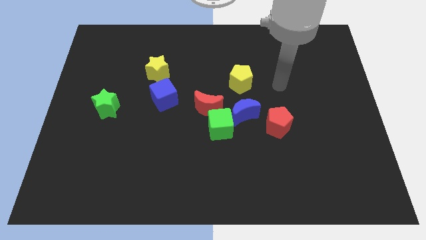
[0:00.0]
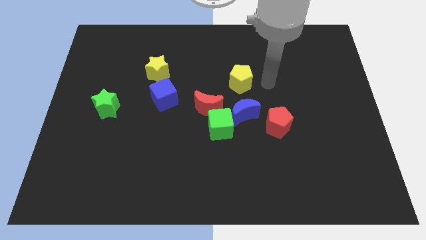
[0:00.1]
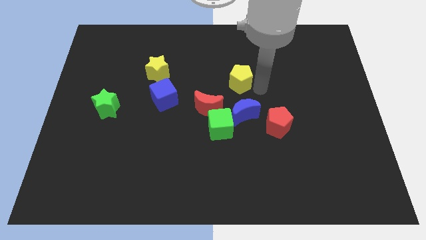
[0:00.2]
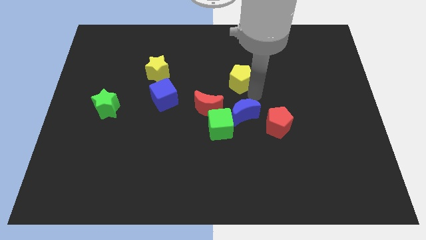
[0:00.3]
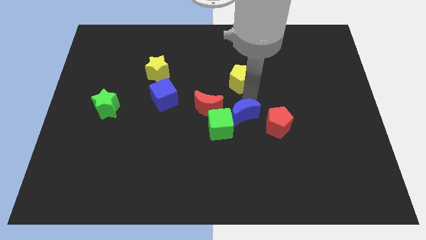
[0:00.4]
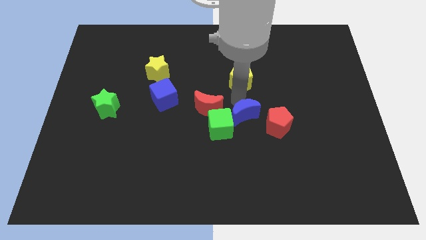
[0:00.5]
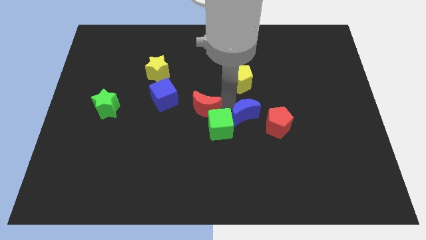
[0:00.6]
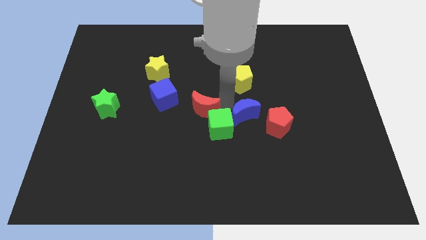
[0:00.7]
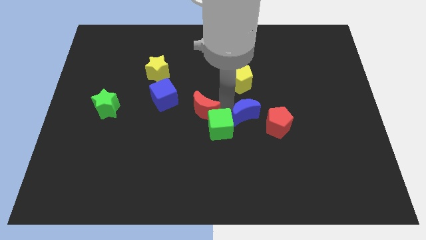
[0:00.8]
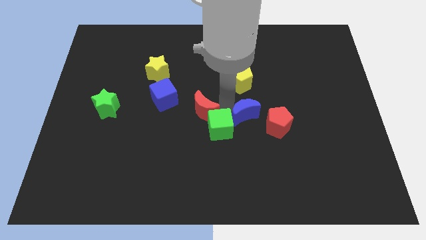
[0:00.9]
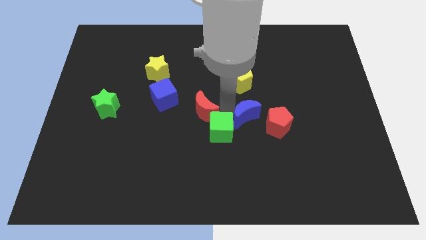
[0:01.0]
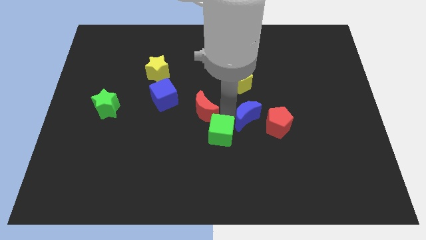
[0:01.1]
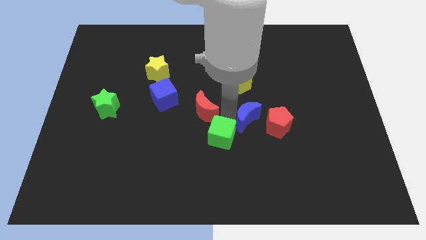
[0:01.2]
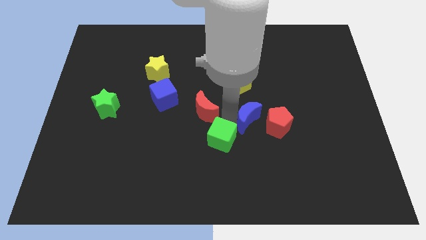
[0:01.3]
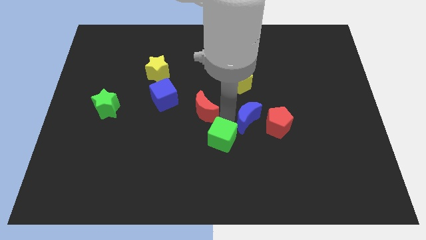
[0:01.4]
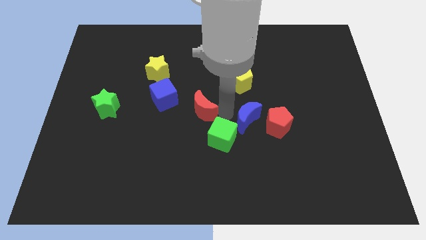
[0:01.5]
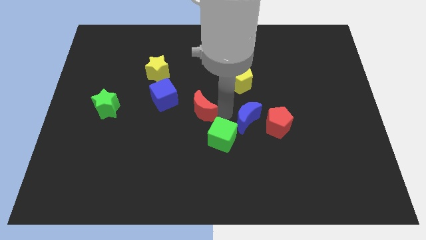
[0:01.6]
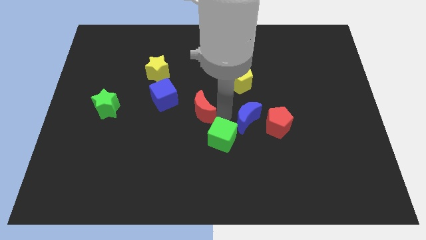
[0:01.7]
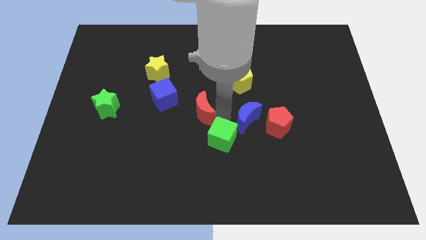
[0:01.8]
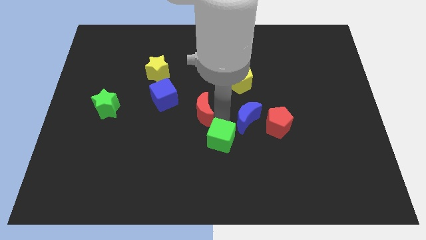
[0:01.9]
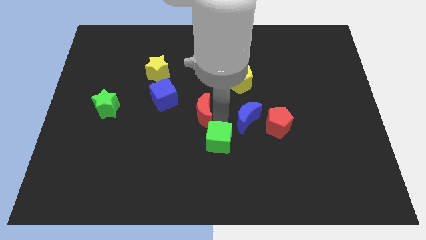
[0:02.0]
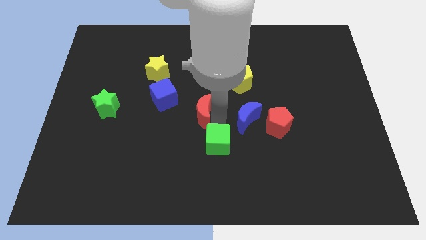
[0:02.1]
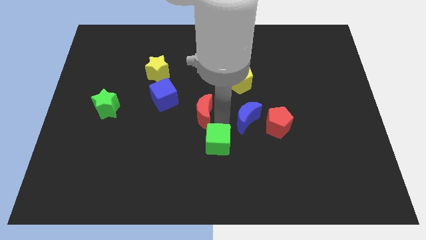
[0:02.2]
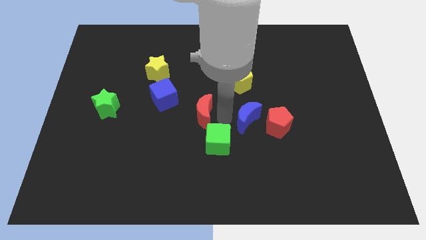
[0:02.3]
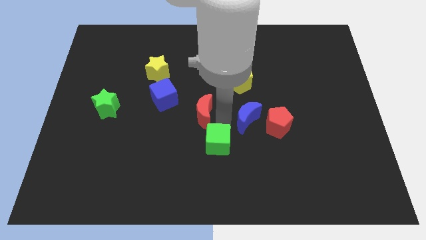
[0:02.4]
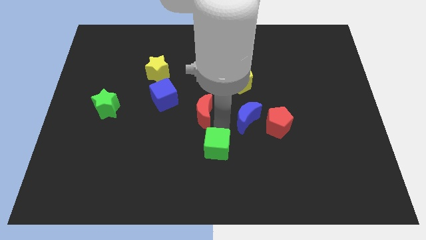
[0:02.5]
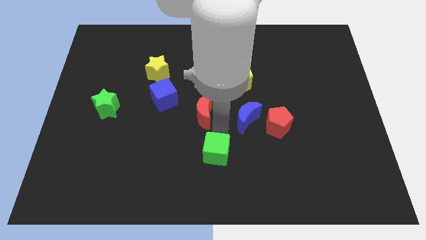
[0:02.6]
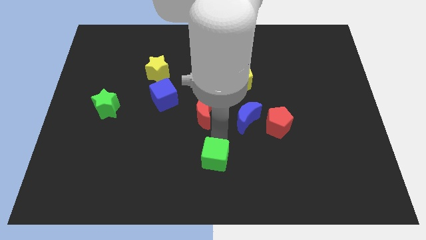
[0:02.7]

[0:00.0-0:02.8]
separate the green cube from the red moon and blue moon

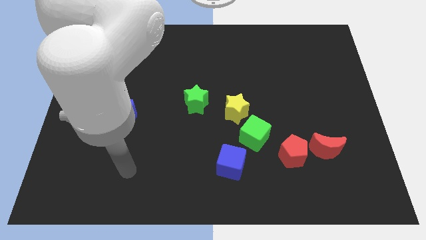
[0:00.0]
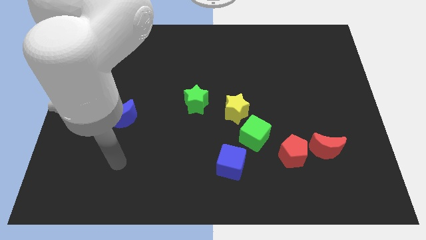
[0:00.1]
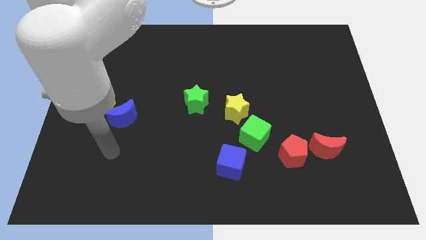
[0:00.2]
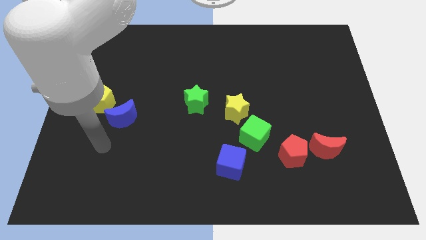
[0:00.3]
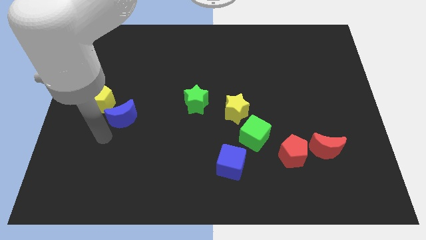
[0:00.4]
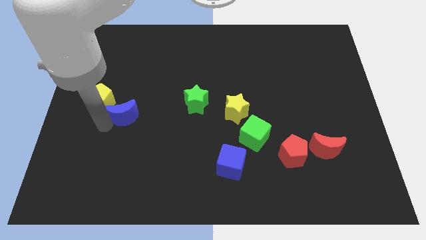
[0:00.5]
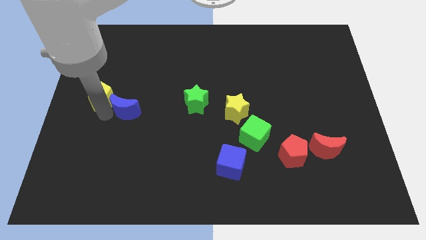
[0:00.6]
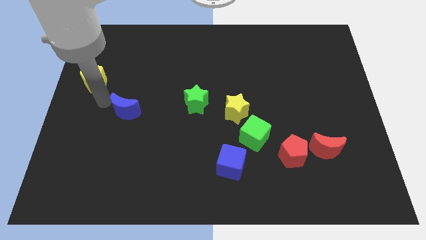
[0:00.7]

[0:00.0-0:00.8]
move the blue moon away from the yellow pentagon

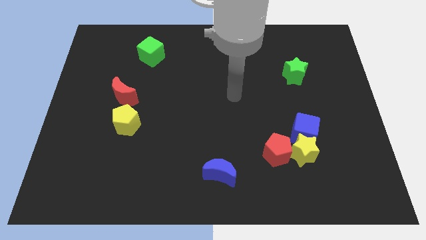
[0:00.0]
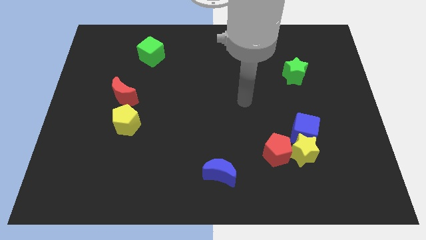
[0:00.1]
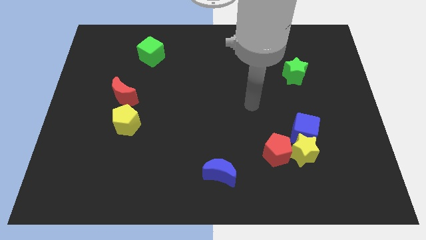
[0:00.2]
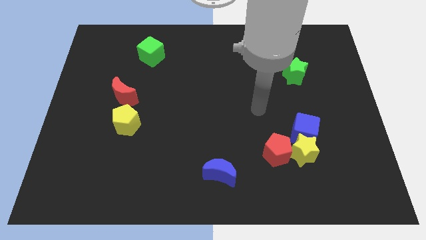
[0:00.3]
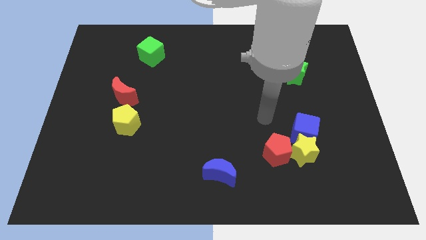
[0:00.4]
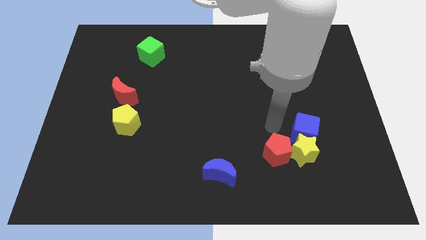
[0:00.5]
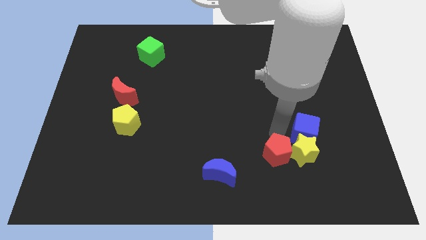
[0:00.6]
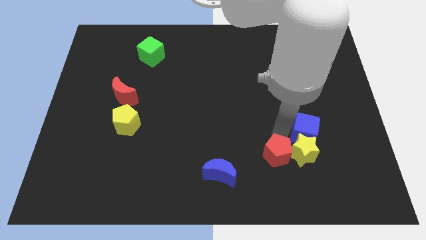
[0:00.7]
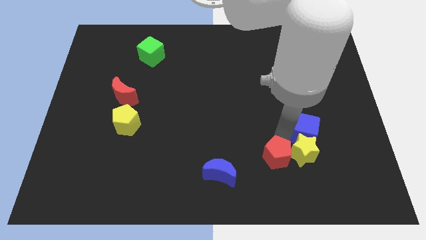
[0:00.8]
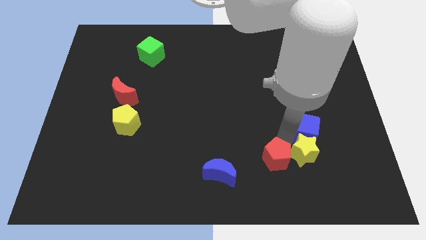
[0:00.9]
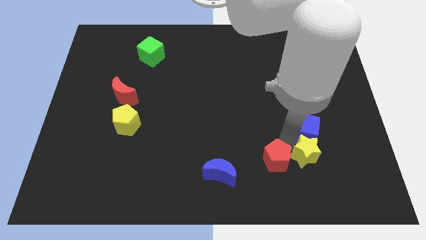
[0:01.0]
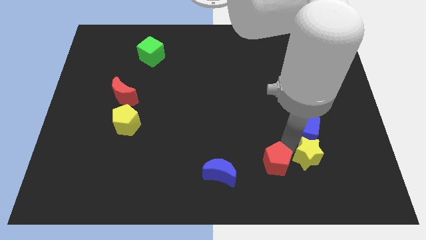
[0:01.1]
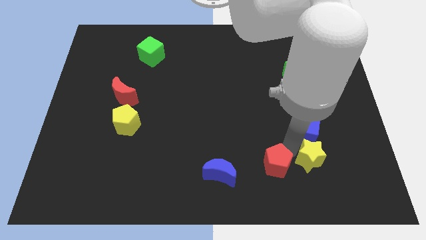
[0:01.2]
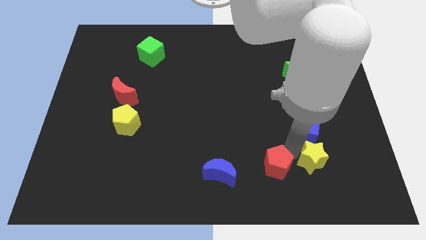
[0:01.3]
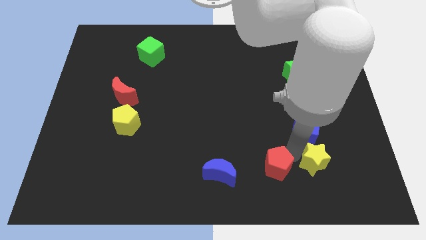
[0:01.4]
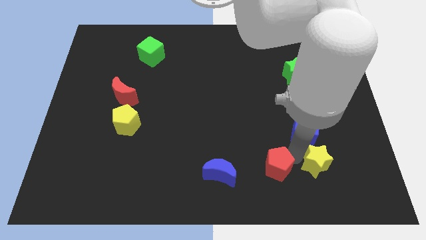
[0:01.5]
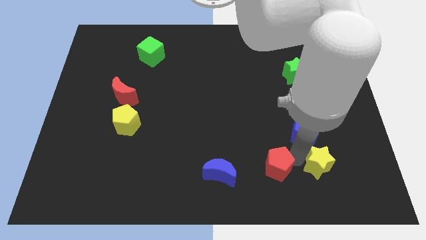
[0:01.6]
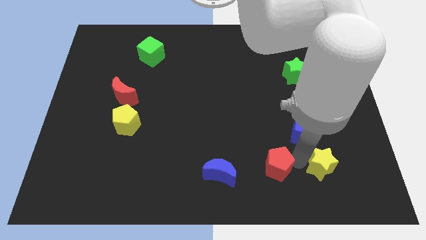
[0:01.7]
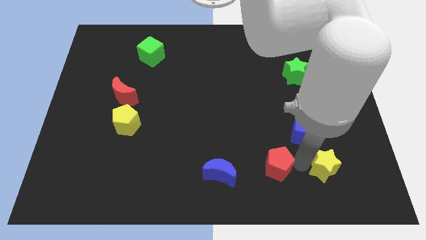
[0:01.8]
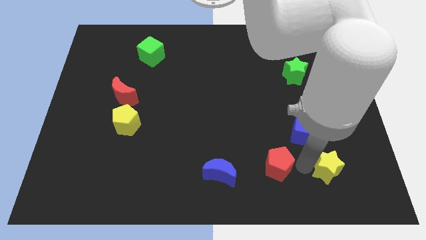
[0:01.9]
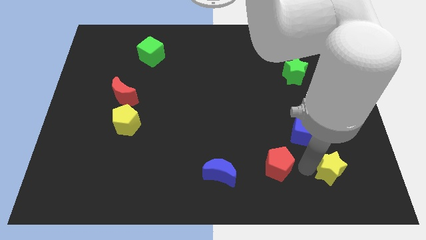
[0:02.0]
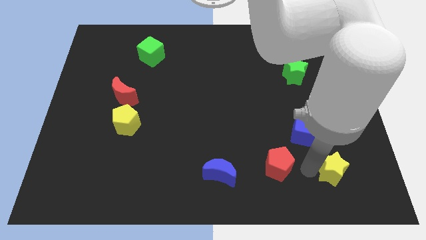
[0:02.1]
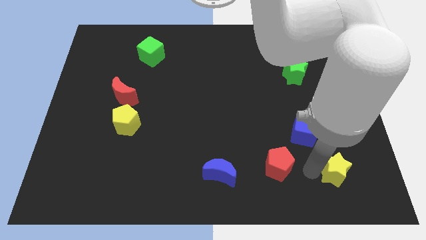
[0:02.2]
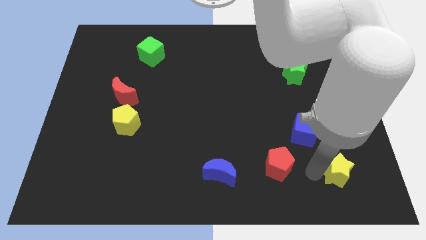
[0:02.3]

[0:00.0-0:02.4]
move the yellow star away from the blue cube and red pentagon

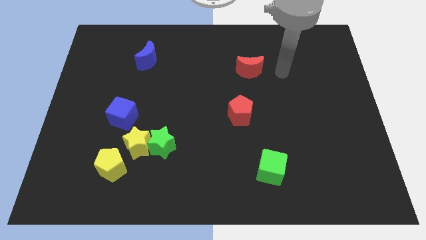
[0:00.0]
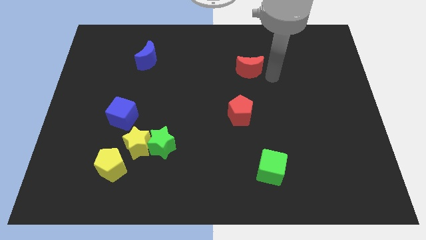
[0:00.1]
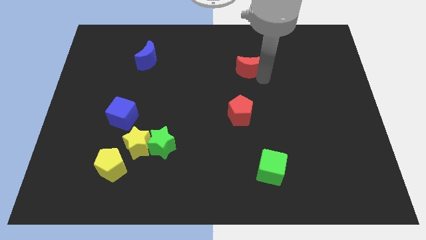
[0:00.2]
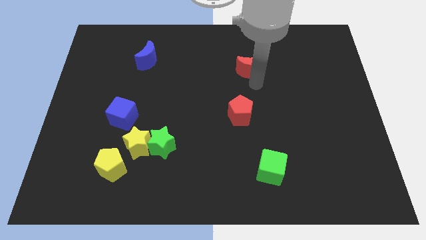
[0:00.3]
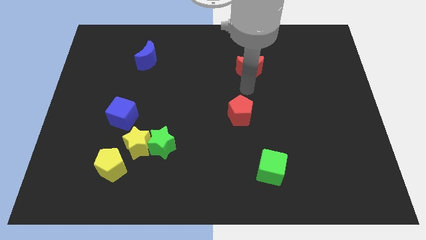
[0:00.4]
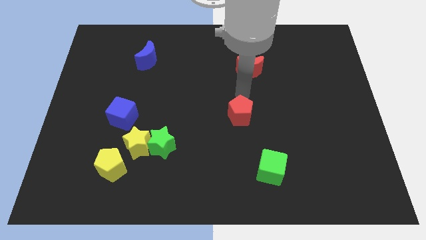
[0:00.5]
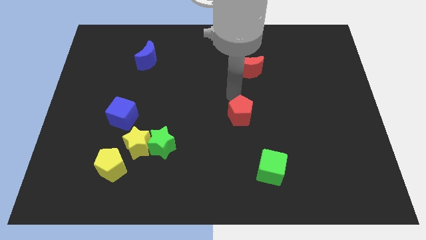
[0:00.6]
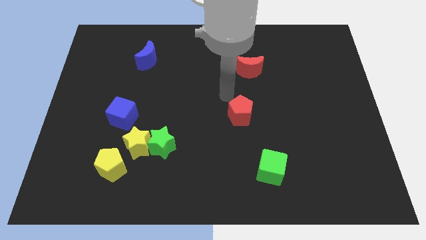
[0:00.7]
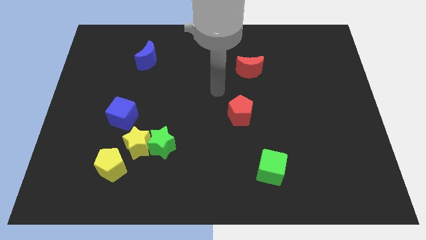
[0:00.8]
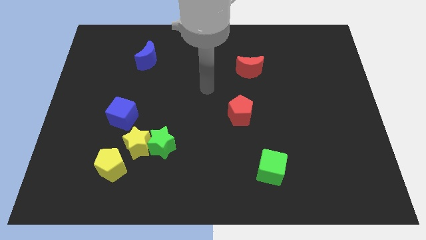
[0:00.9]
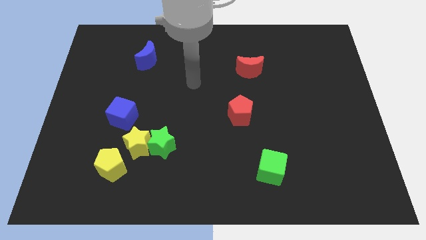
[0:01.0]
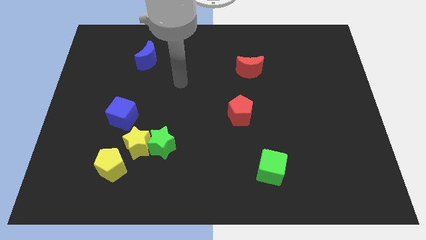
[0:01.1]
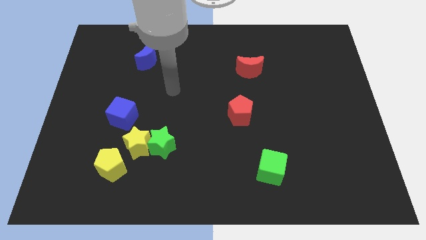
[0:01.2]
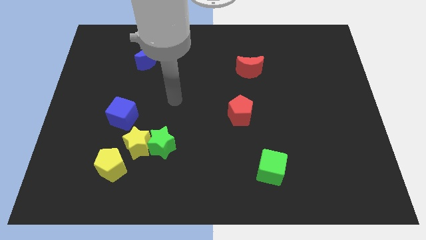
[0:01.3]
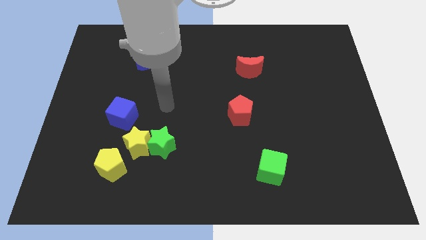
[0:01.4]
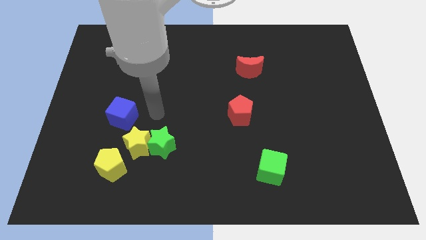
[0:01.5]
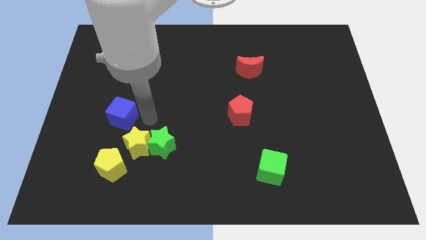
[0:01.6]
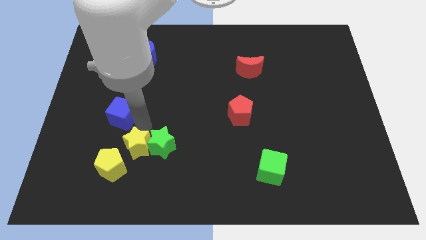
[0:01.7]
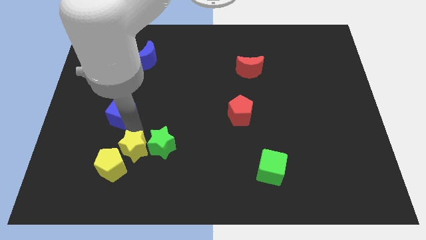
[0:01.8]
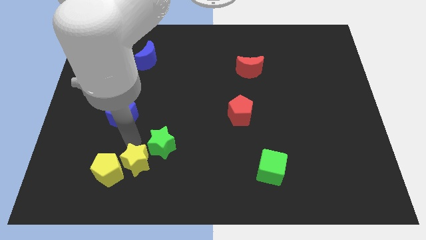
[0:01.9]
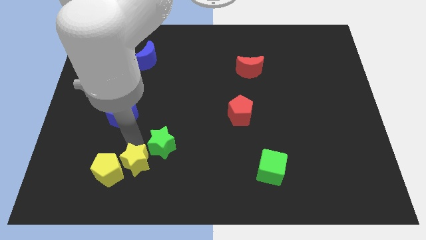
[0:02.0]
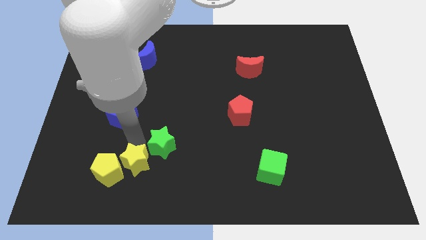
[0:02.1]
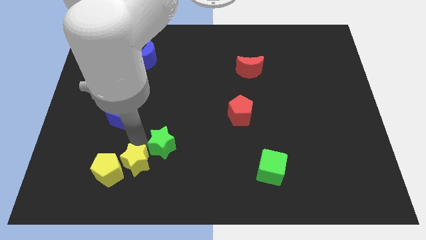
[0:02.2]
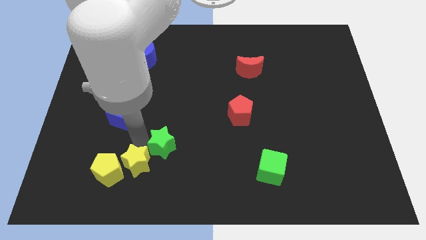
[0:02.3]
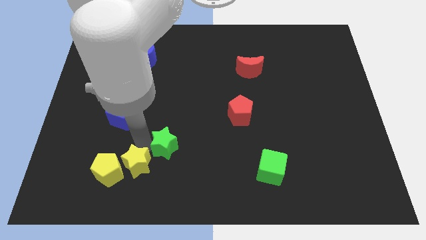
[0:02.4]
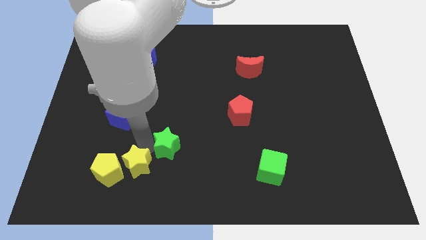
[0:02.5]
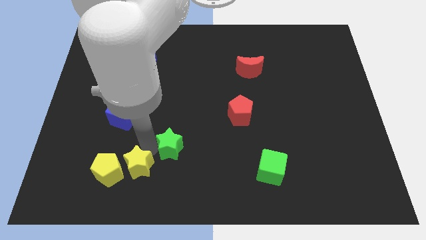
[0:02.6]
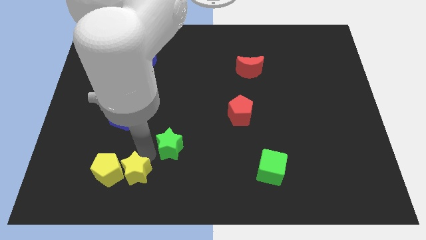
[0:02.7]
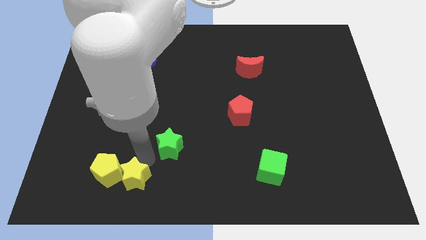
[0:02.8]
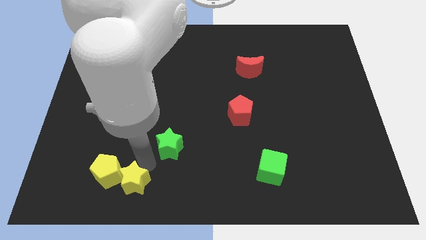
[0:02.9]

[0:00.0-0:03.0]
pull the green star apart from the yellow star

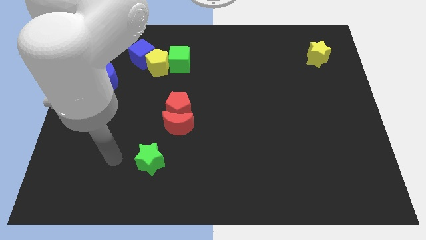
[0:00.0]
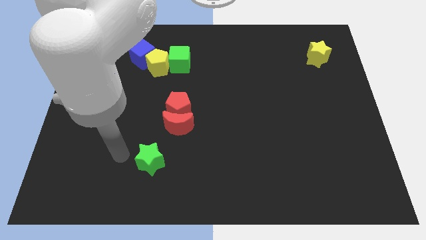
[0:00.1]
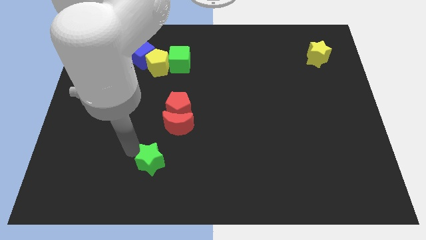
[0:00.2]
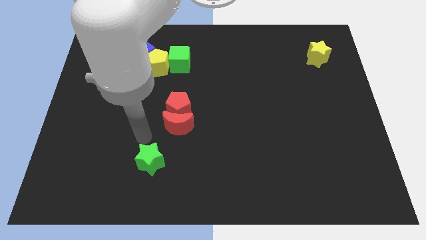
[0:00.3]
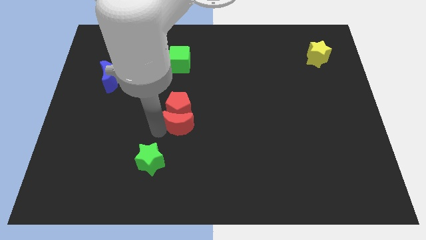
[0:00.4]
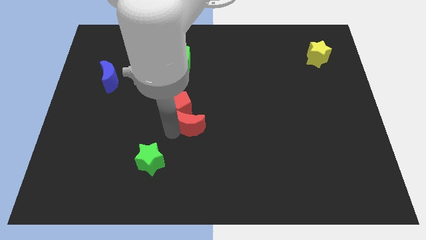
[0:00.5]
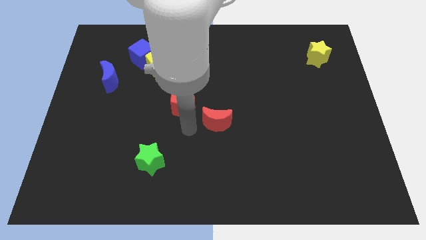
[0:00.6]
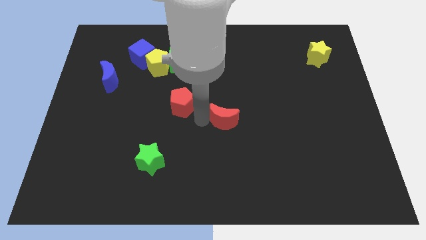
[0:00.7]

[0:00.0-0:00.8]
move the red pentagon away from the red moon
